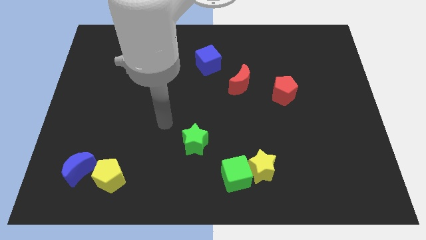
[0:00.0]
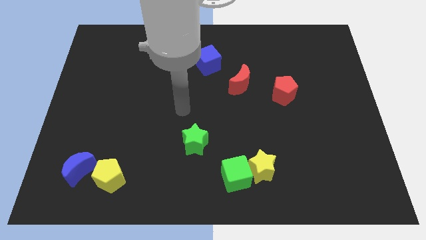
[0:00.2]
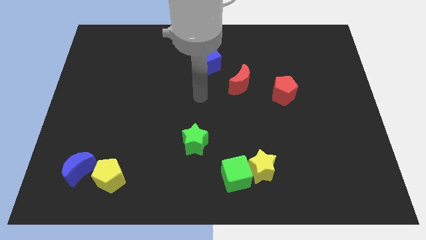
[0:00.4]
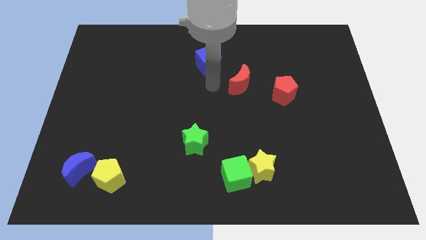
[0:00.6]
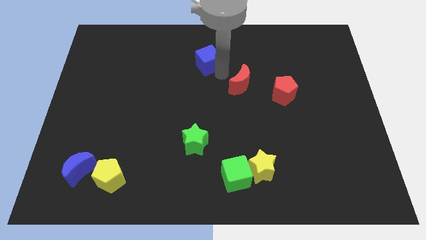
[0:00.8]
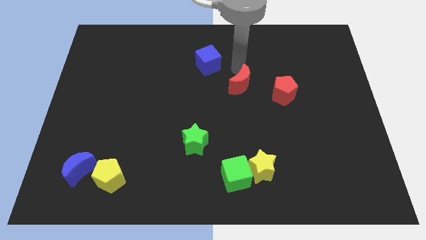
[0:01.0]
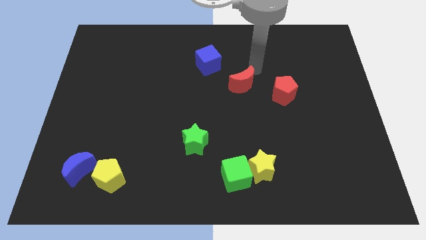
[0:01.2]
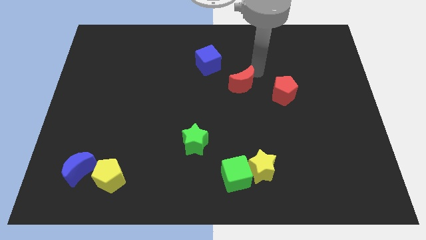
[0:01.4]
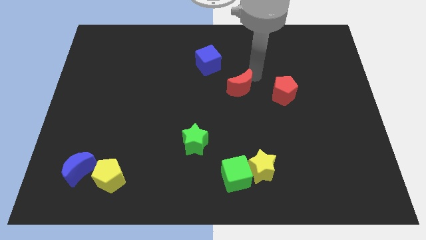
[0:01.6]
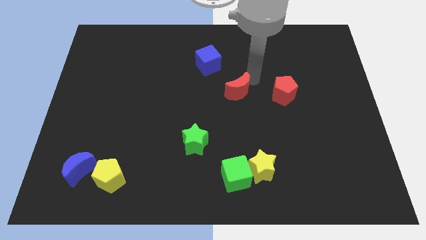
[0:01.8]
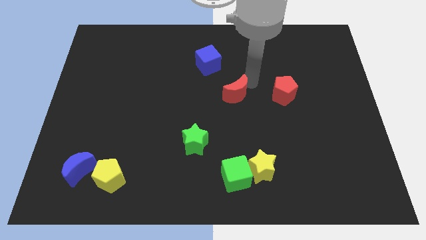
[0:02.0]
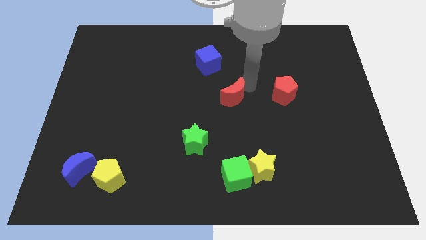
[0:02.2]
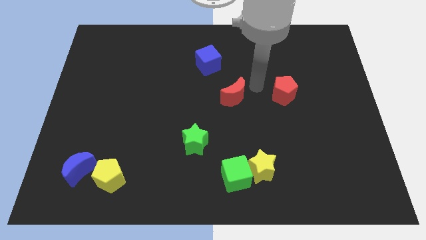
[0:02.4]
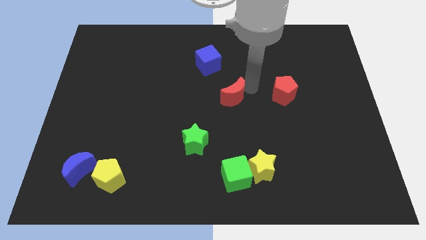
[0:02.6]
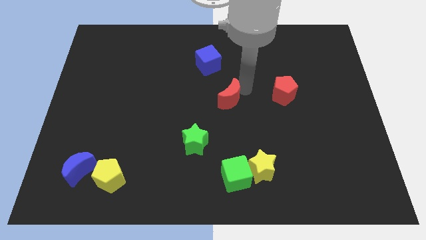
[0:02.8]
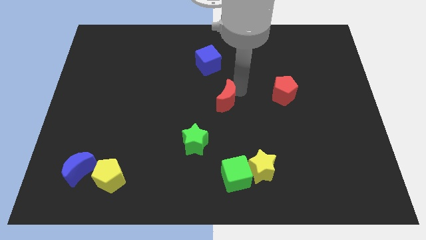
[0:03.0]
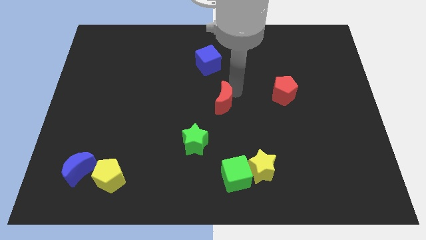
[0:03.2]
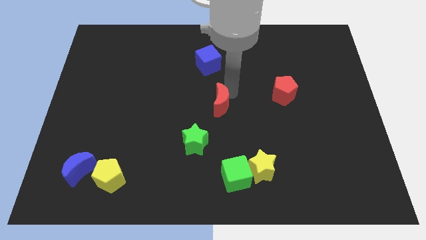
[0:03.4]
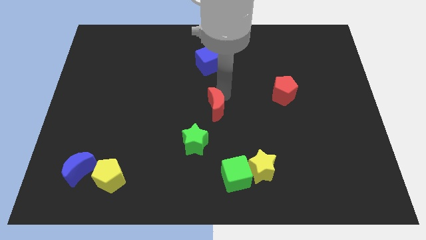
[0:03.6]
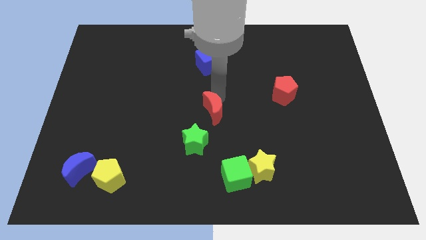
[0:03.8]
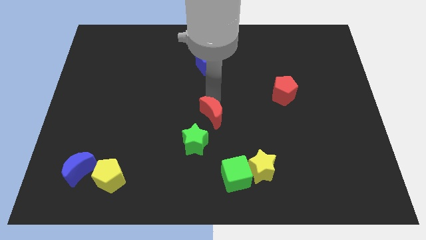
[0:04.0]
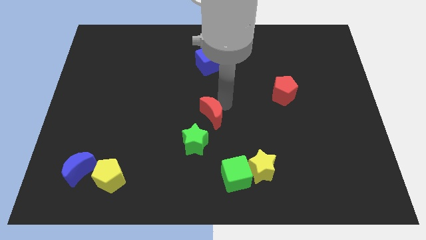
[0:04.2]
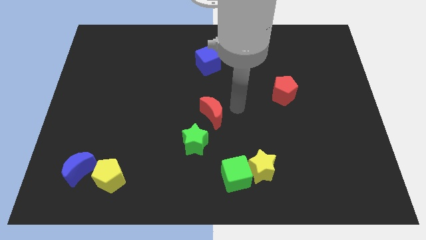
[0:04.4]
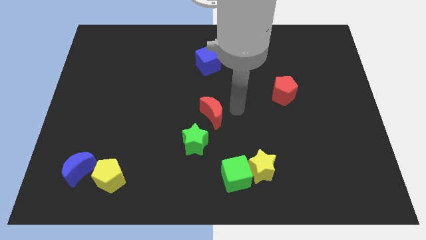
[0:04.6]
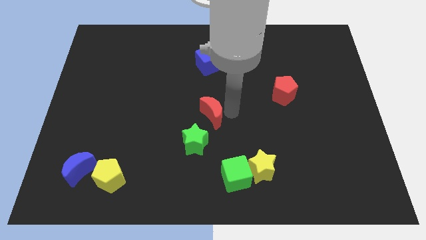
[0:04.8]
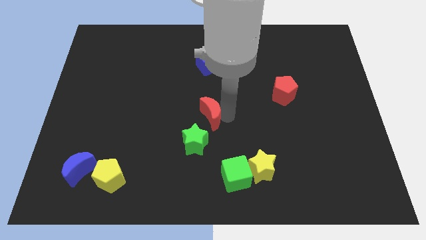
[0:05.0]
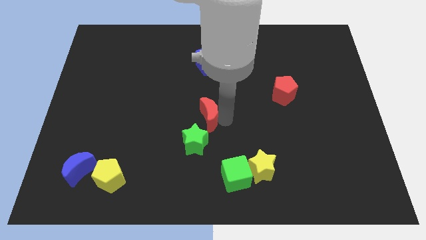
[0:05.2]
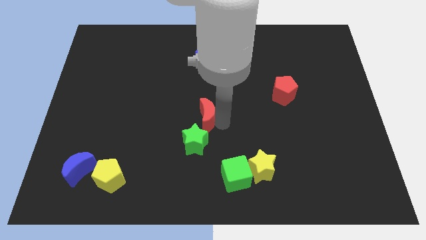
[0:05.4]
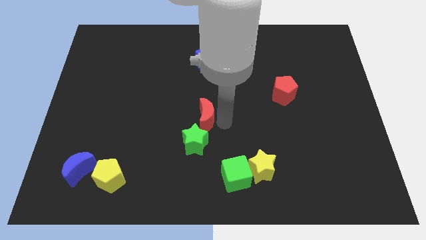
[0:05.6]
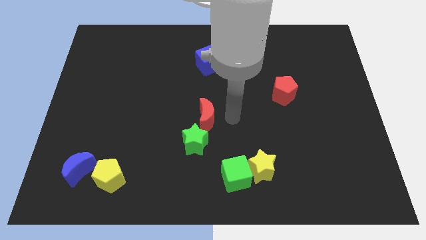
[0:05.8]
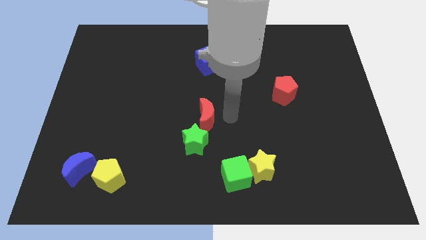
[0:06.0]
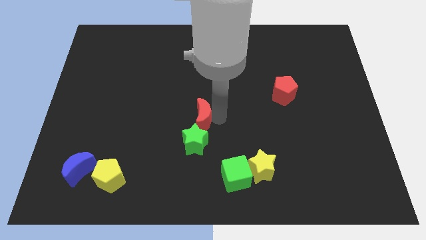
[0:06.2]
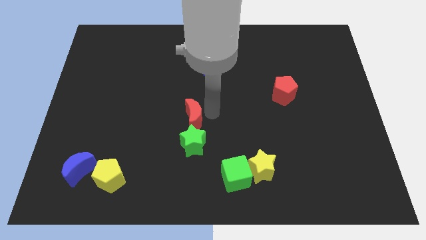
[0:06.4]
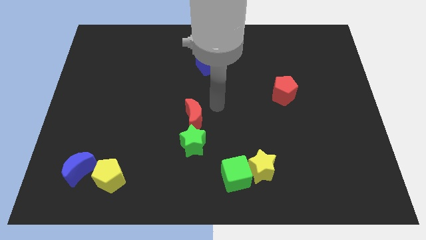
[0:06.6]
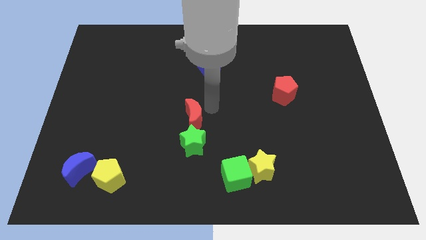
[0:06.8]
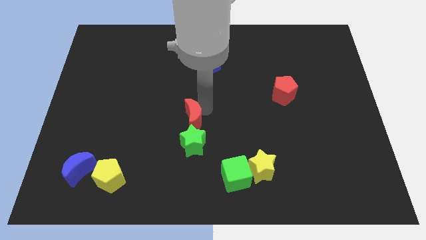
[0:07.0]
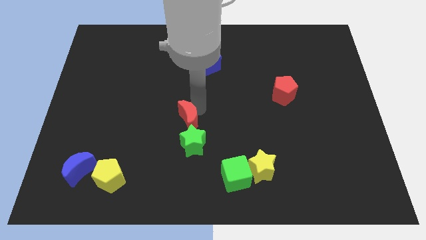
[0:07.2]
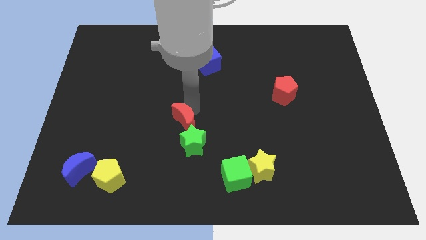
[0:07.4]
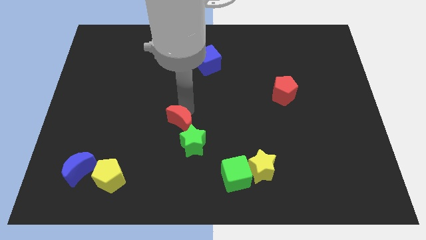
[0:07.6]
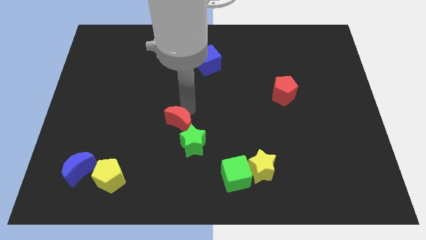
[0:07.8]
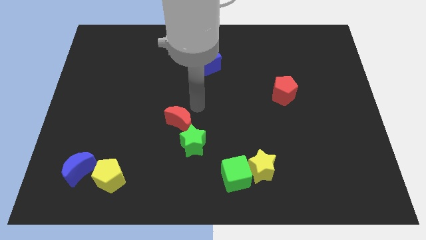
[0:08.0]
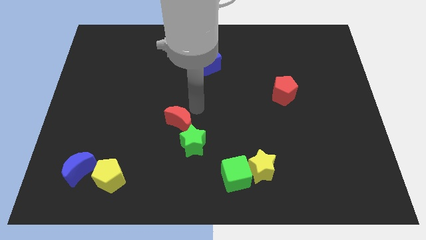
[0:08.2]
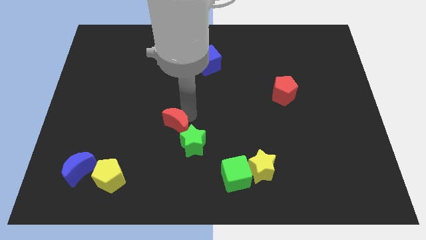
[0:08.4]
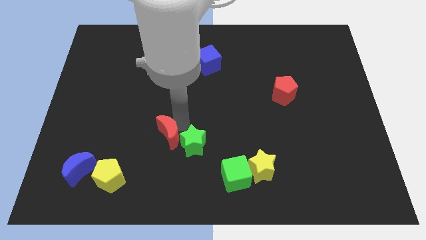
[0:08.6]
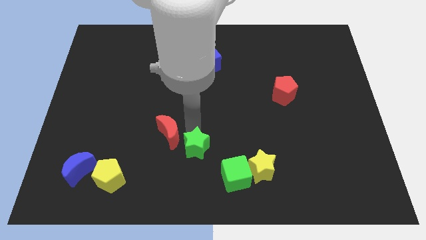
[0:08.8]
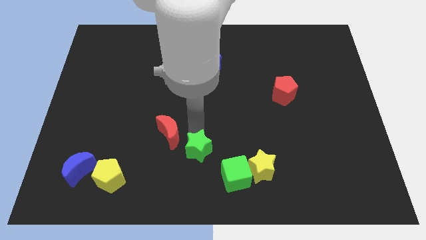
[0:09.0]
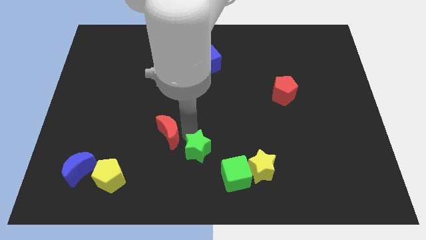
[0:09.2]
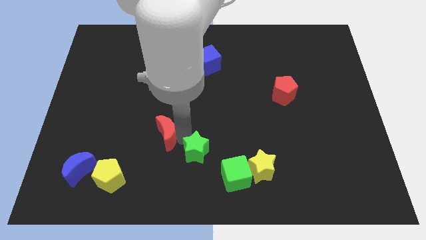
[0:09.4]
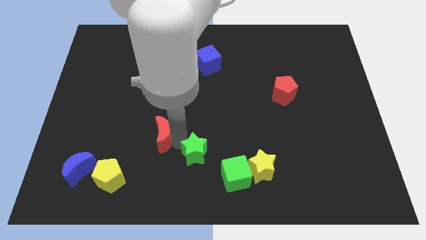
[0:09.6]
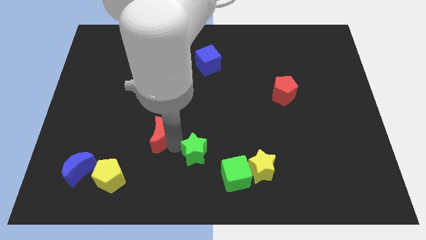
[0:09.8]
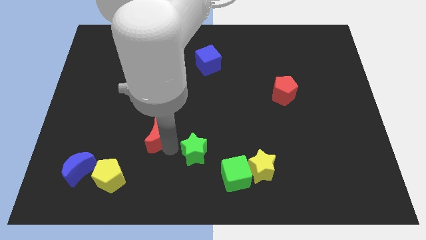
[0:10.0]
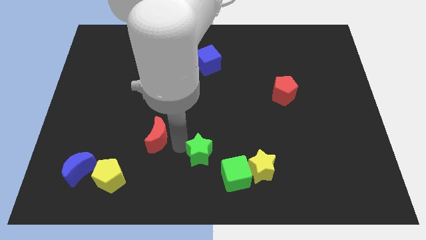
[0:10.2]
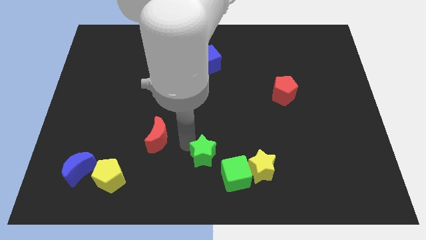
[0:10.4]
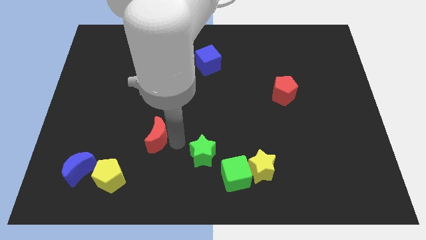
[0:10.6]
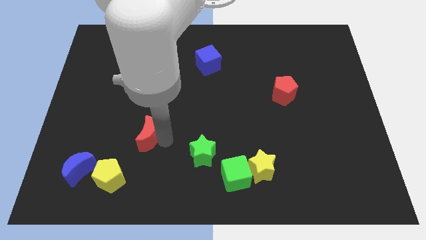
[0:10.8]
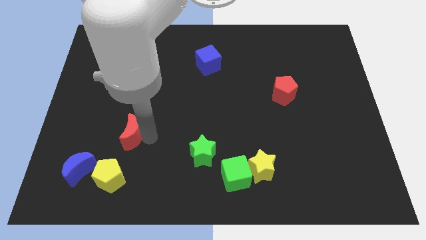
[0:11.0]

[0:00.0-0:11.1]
move the red moon to the top side of the yellow pentagon

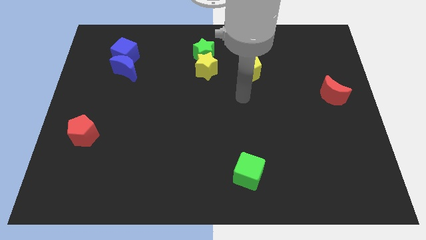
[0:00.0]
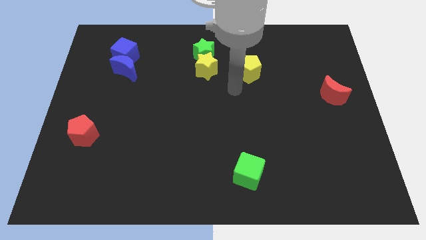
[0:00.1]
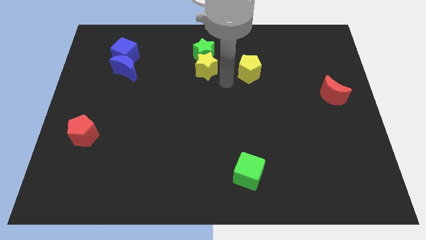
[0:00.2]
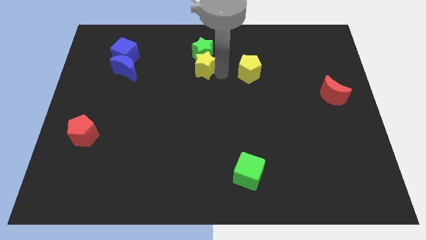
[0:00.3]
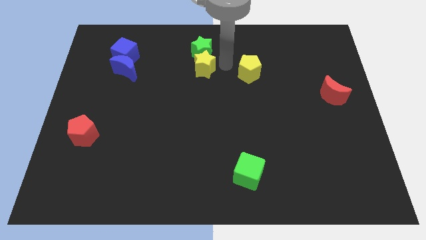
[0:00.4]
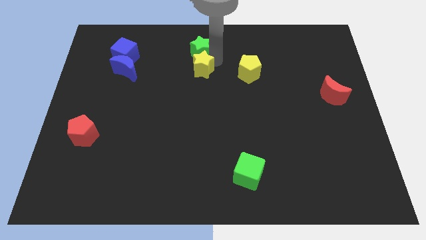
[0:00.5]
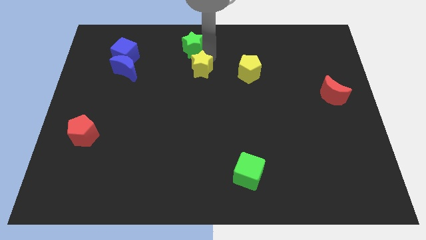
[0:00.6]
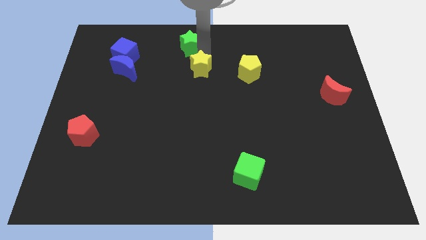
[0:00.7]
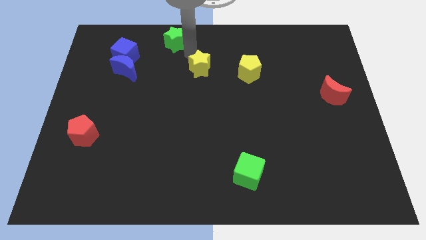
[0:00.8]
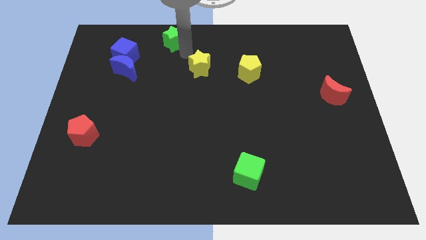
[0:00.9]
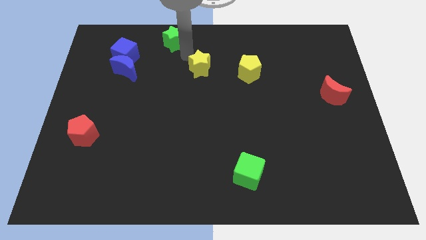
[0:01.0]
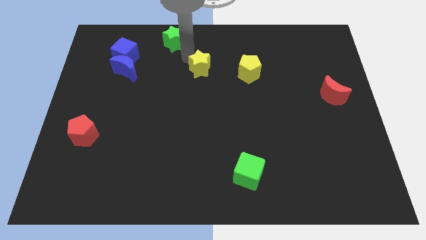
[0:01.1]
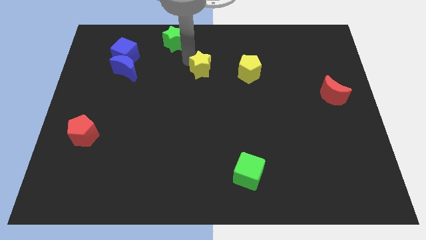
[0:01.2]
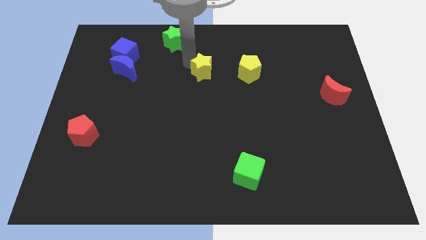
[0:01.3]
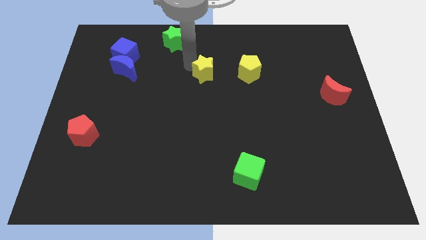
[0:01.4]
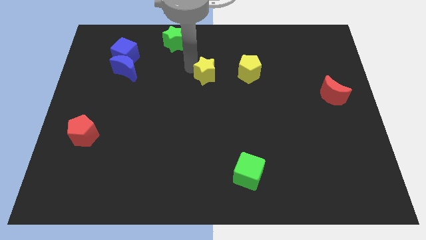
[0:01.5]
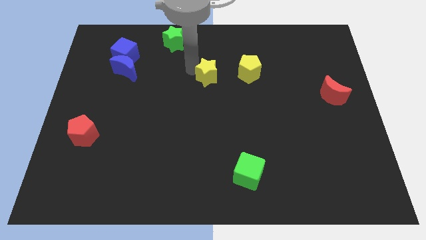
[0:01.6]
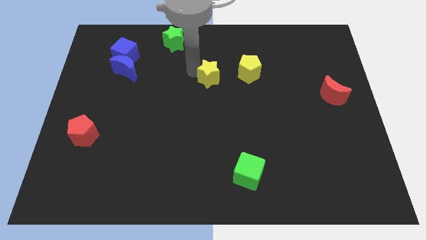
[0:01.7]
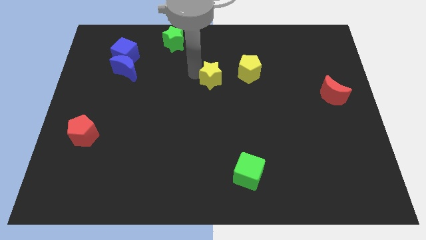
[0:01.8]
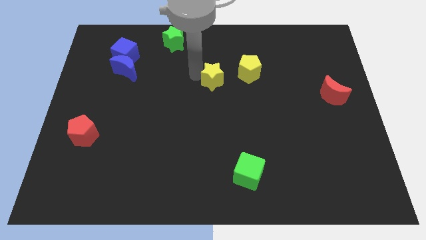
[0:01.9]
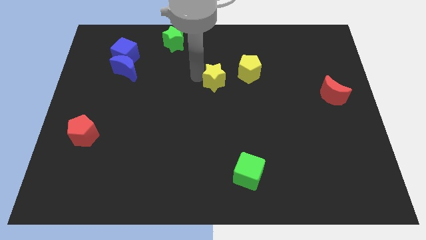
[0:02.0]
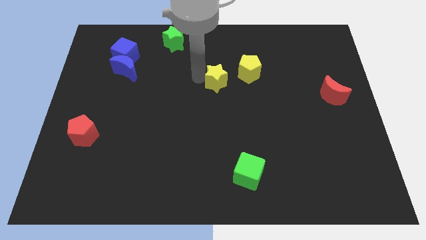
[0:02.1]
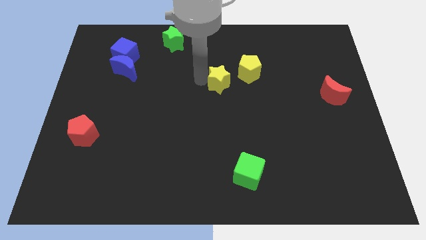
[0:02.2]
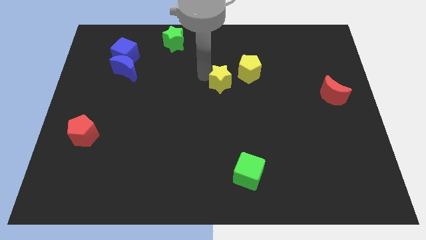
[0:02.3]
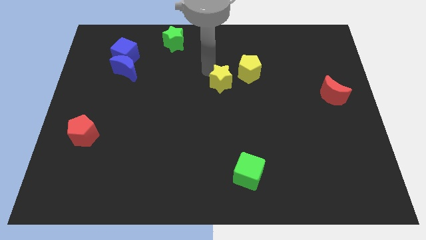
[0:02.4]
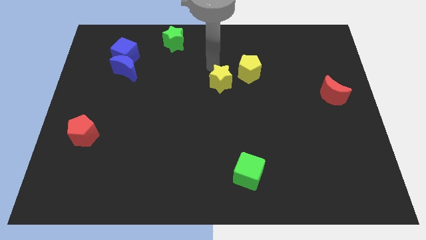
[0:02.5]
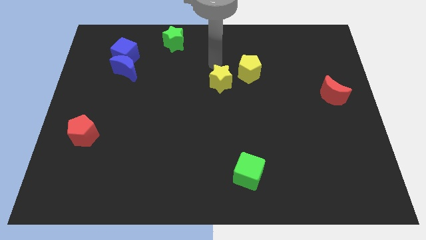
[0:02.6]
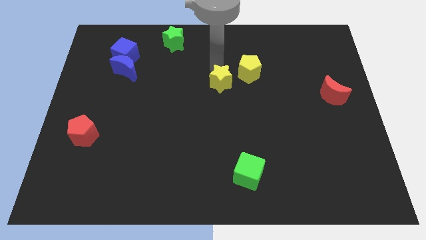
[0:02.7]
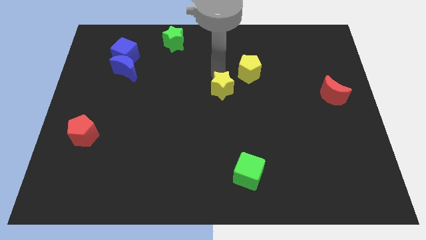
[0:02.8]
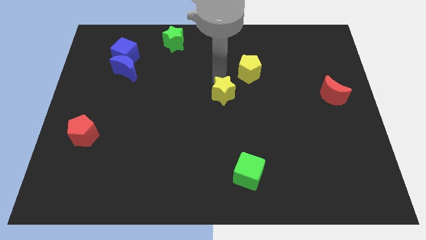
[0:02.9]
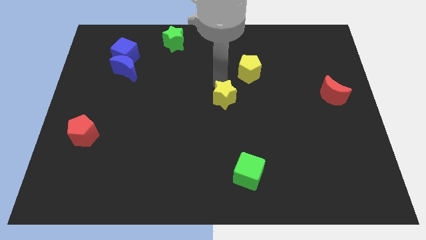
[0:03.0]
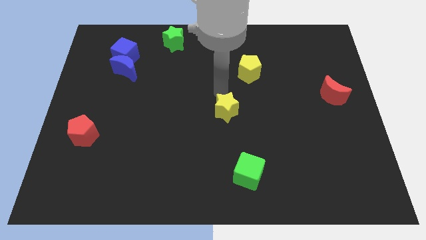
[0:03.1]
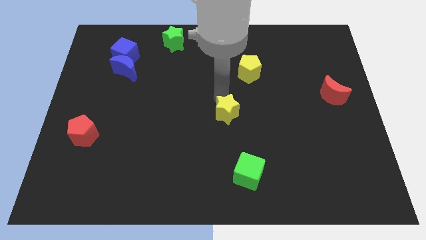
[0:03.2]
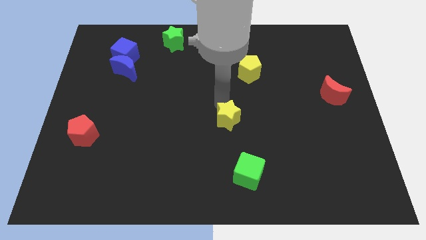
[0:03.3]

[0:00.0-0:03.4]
push the yellow star above the green cube
